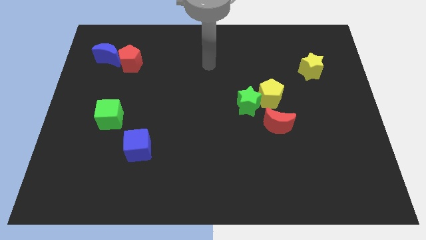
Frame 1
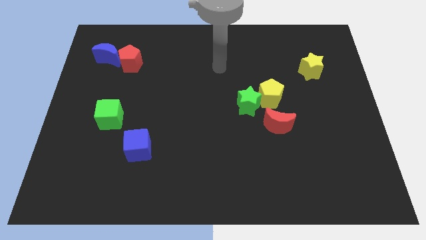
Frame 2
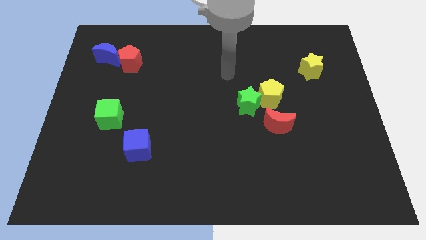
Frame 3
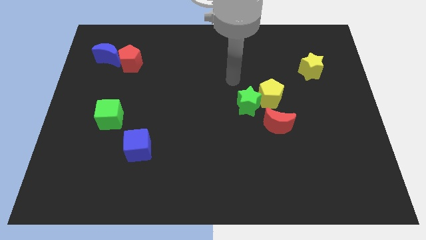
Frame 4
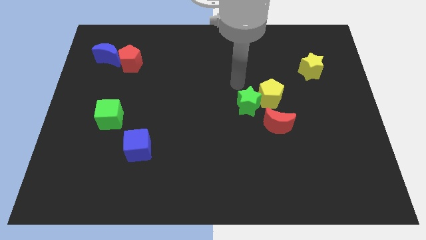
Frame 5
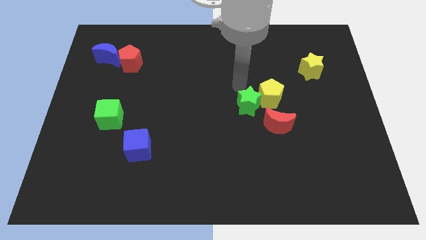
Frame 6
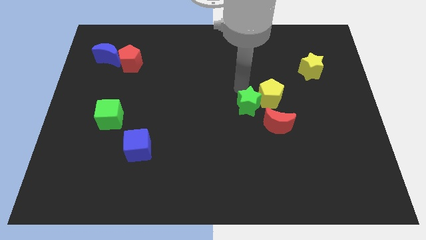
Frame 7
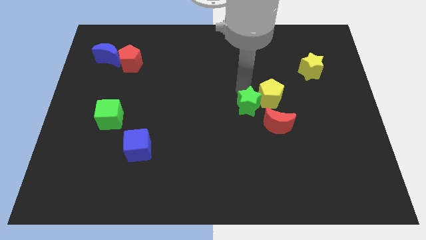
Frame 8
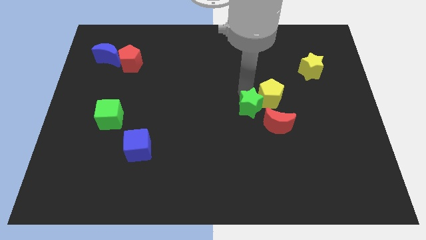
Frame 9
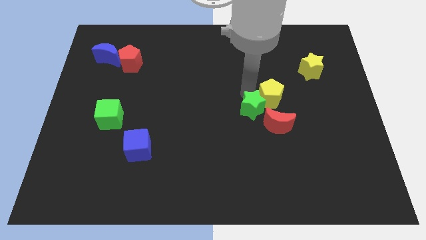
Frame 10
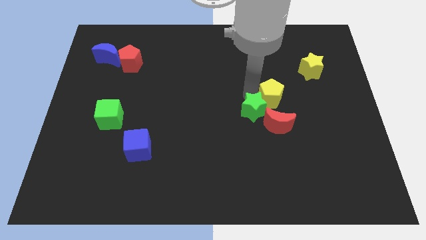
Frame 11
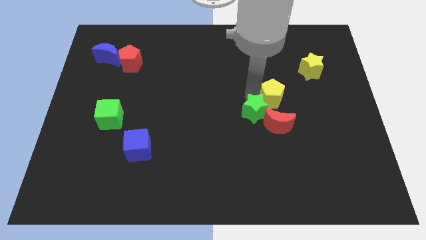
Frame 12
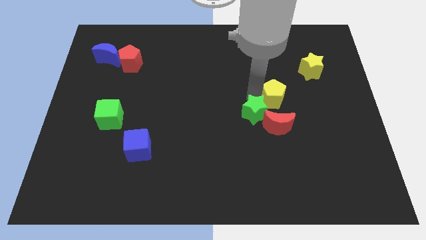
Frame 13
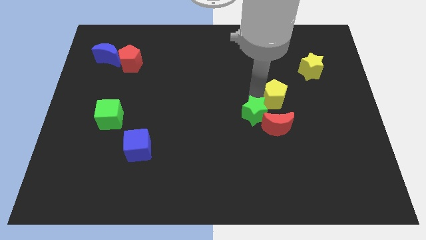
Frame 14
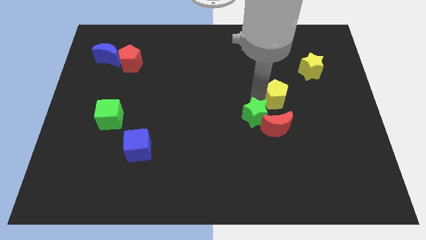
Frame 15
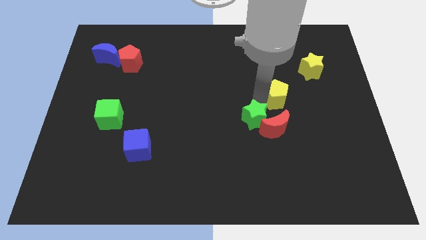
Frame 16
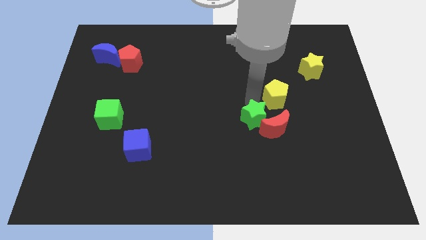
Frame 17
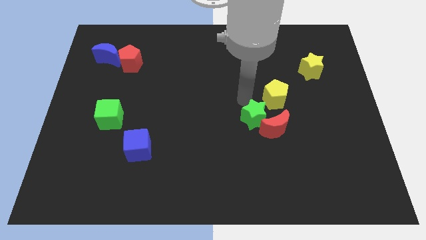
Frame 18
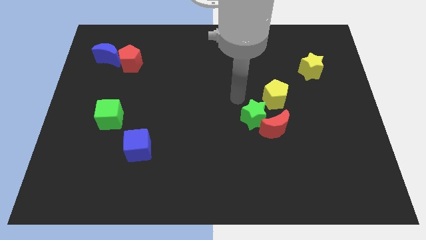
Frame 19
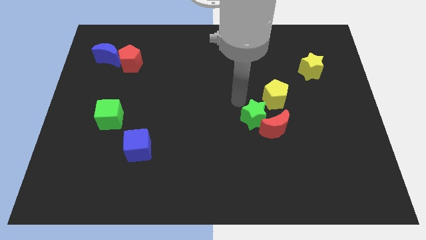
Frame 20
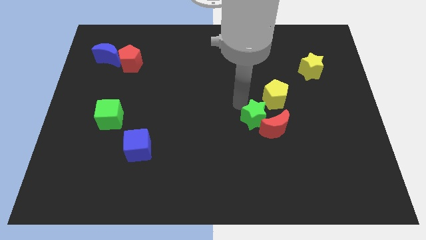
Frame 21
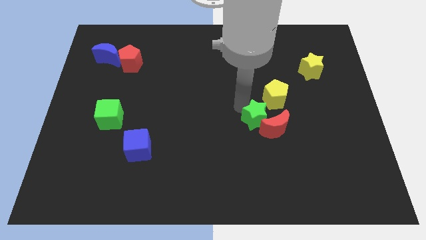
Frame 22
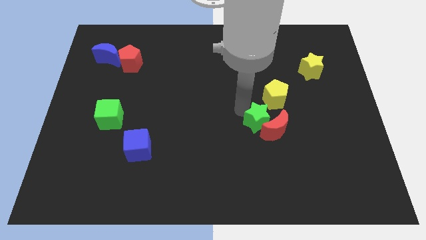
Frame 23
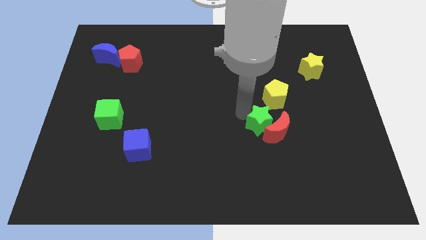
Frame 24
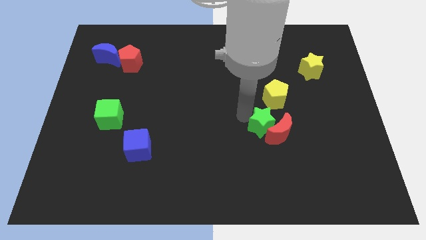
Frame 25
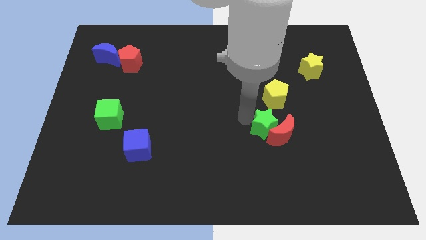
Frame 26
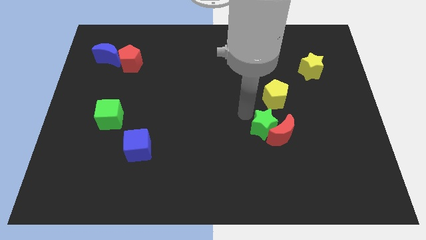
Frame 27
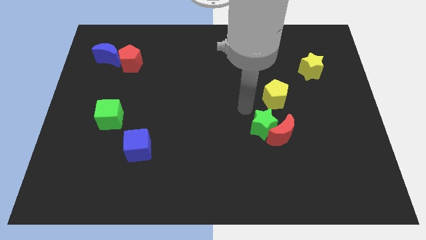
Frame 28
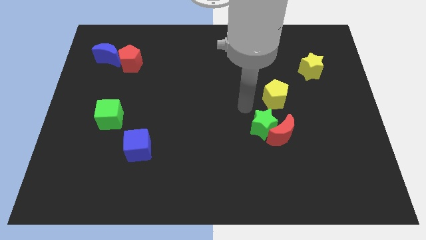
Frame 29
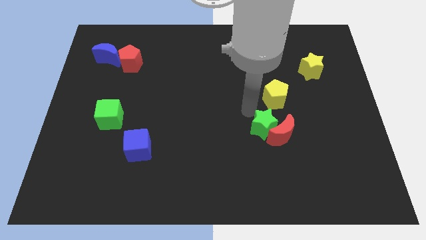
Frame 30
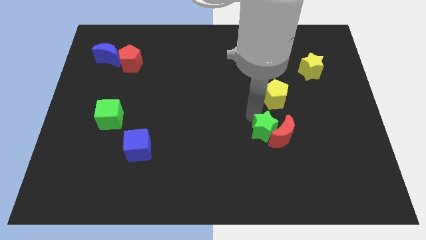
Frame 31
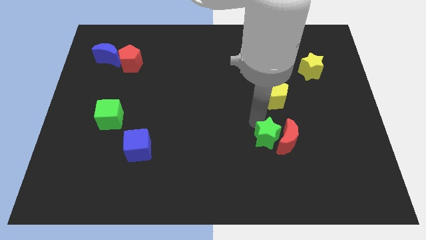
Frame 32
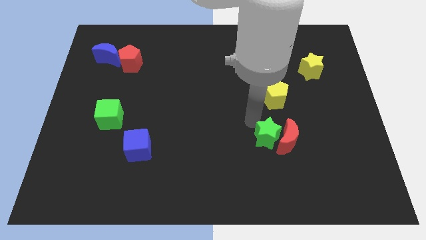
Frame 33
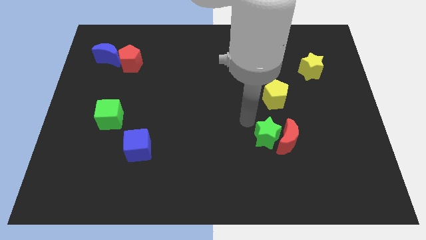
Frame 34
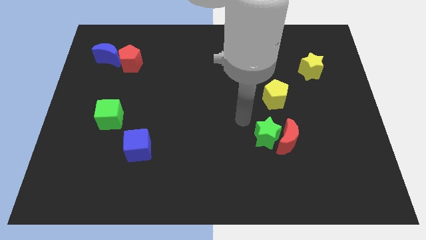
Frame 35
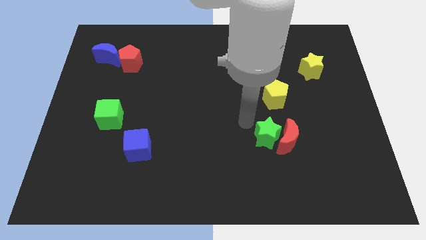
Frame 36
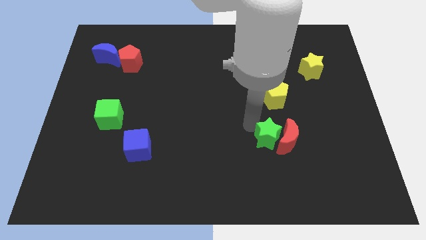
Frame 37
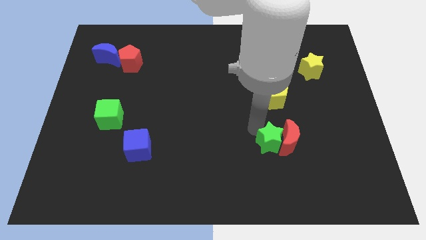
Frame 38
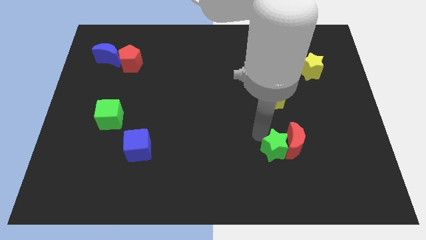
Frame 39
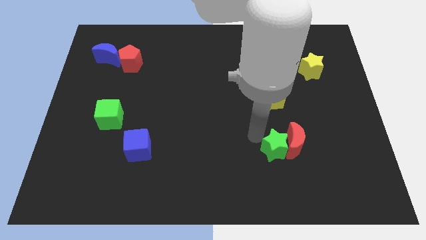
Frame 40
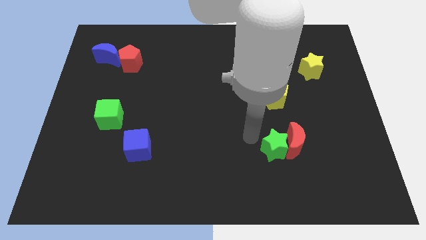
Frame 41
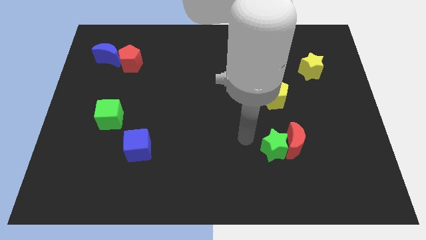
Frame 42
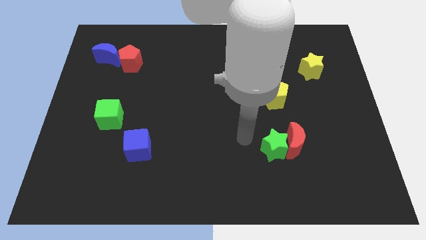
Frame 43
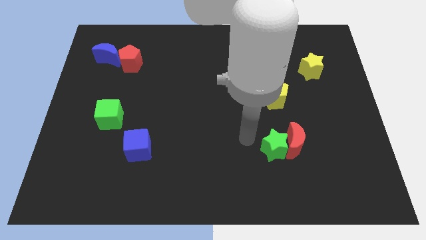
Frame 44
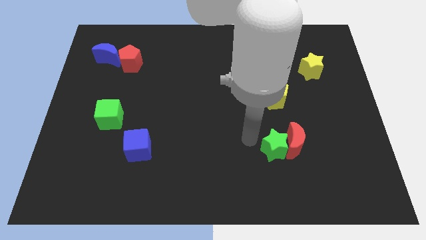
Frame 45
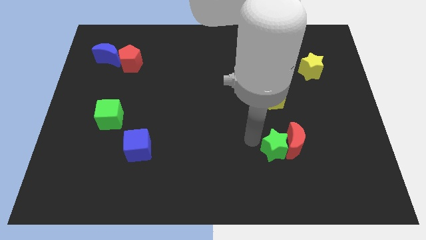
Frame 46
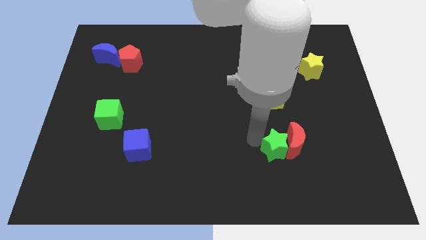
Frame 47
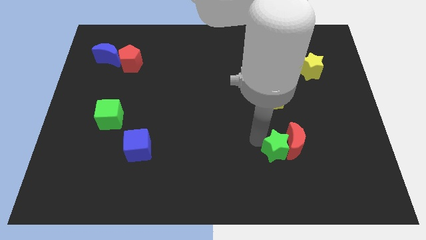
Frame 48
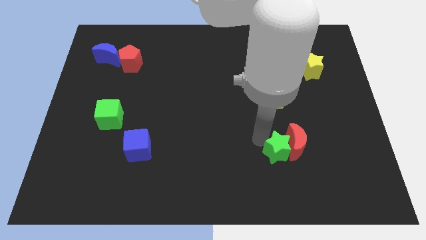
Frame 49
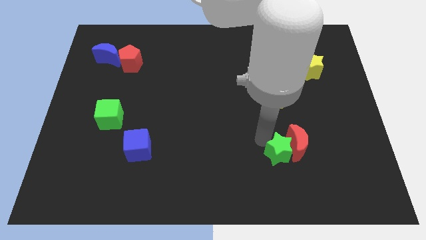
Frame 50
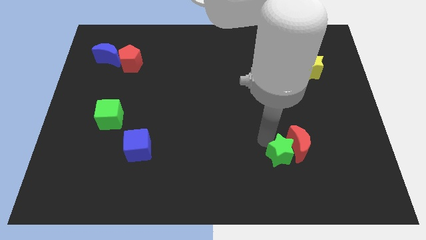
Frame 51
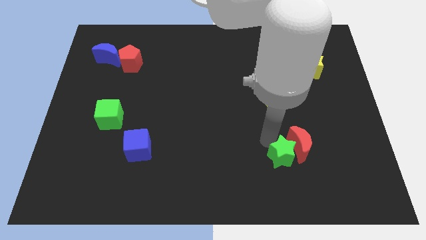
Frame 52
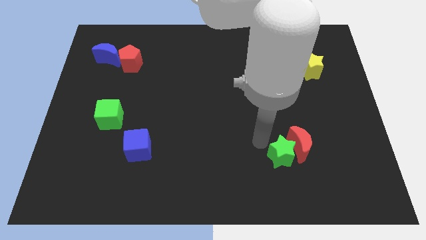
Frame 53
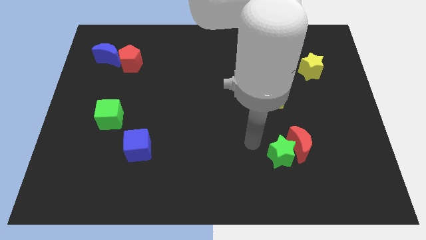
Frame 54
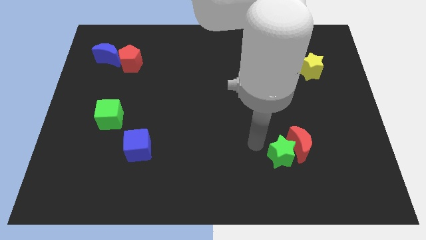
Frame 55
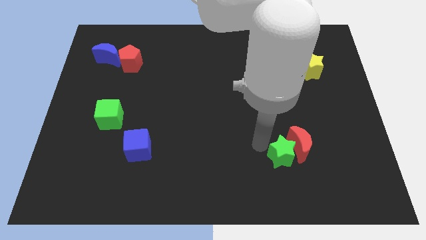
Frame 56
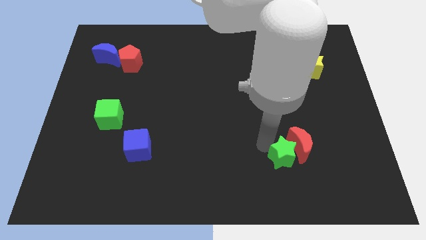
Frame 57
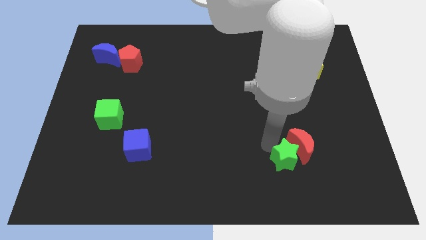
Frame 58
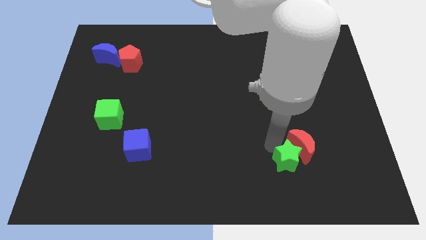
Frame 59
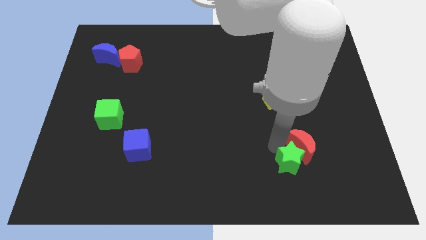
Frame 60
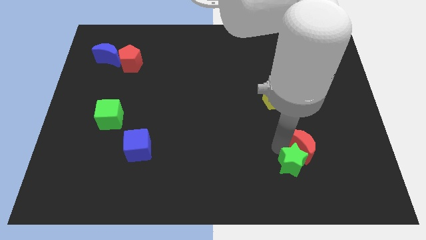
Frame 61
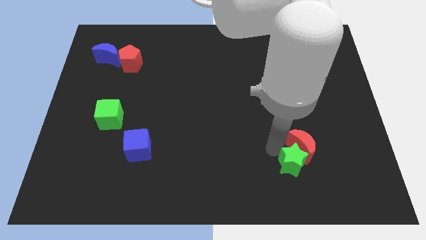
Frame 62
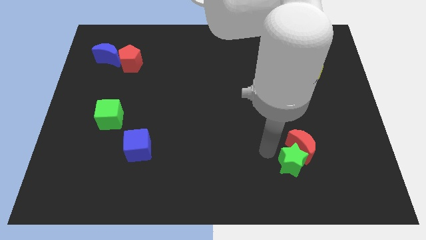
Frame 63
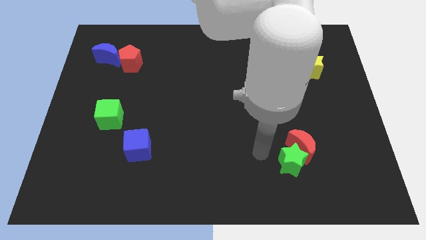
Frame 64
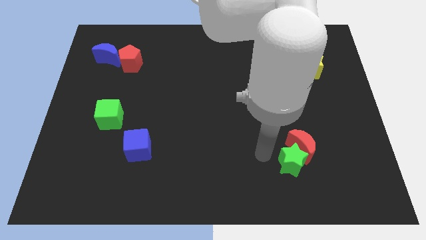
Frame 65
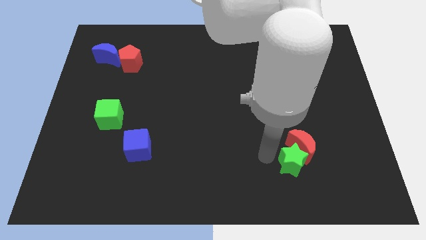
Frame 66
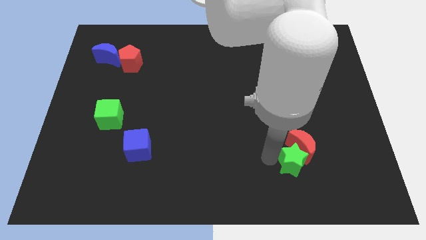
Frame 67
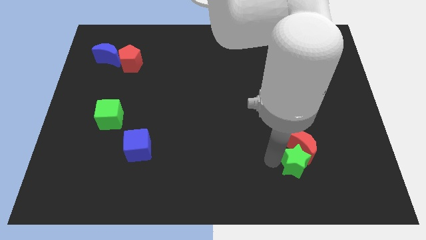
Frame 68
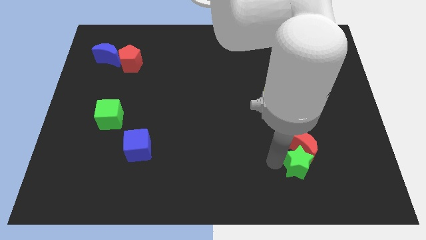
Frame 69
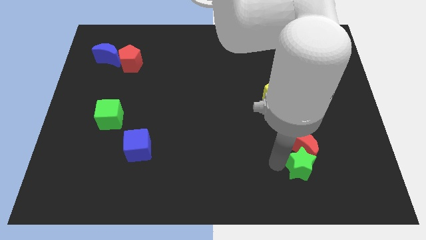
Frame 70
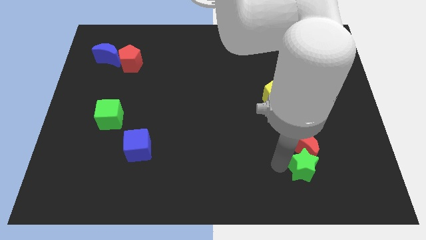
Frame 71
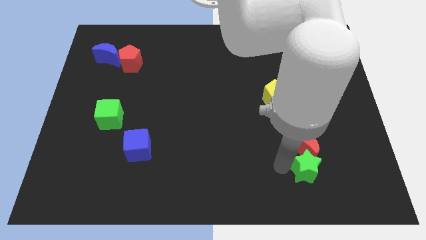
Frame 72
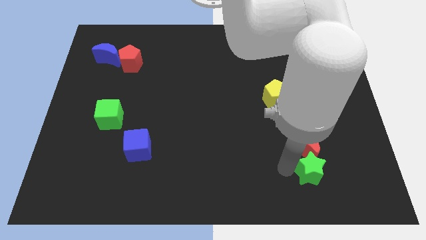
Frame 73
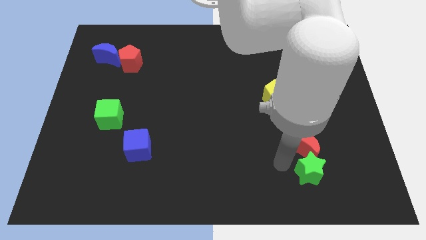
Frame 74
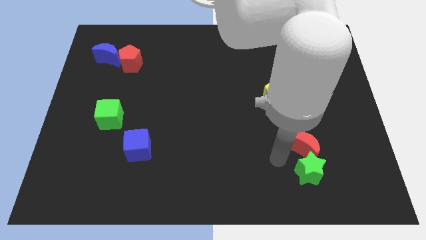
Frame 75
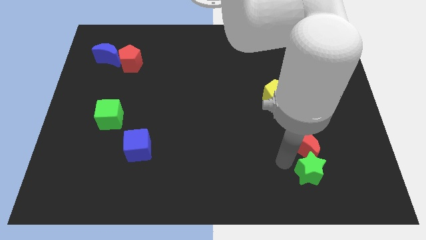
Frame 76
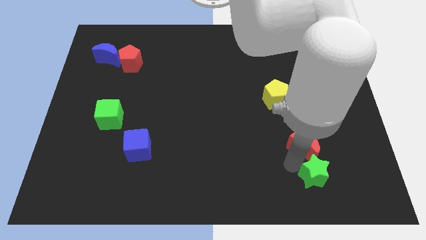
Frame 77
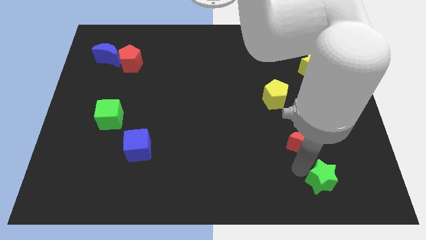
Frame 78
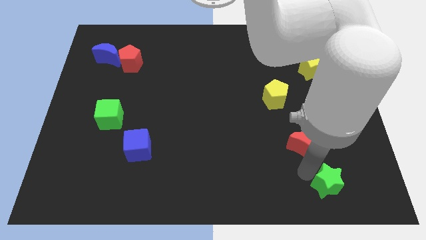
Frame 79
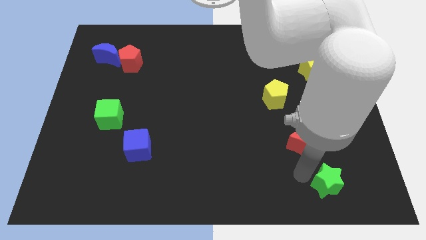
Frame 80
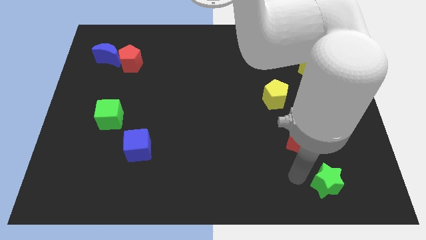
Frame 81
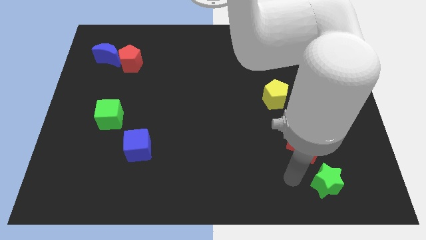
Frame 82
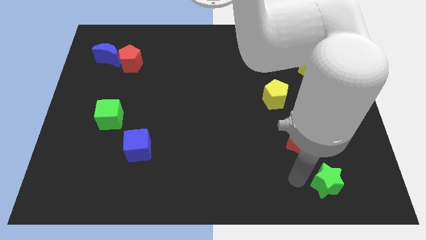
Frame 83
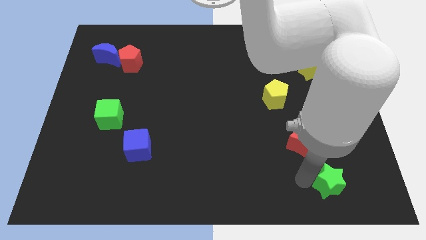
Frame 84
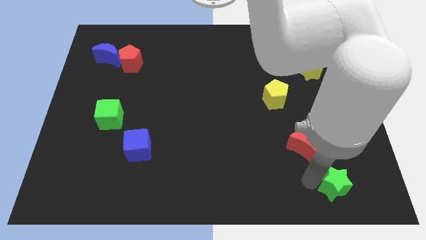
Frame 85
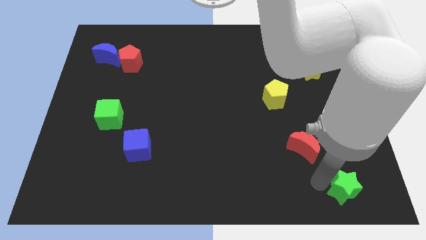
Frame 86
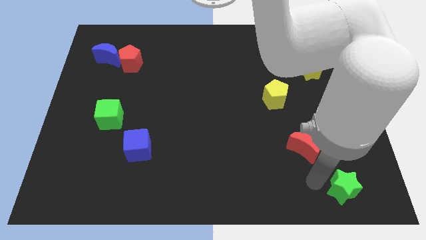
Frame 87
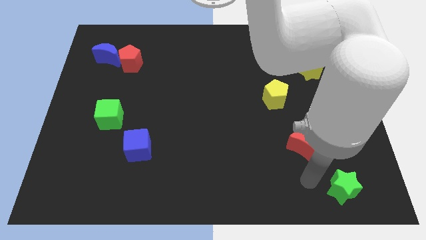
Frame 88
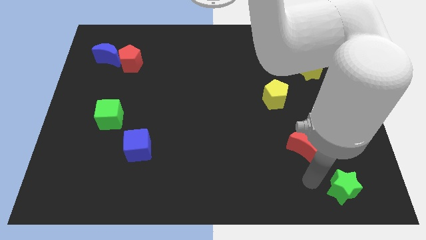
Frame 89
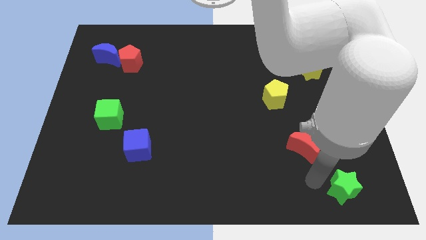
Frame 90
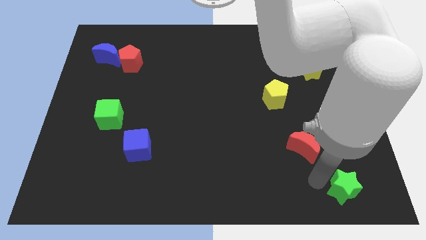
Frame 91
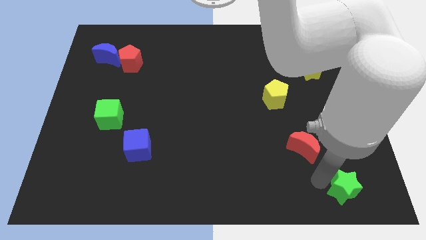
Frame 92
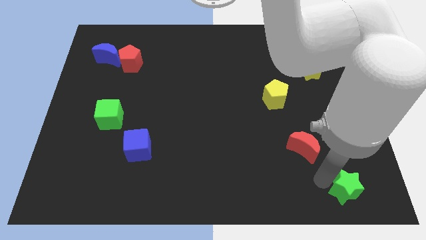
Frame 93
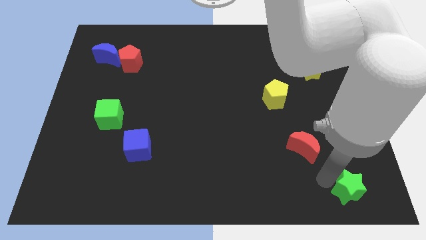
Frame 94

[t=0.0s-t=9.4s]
push the green star to the bottom right
